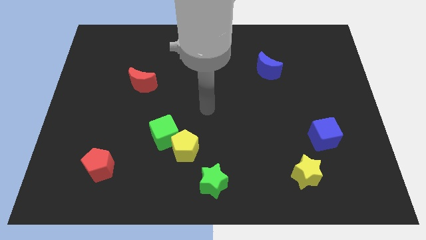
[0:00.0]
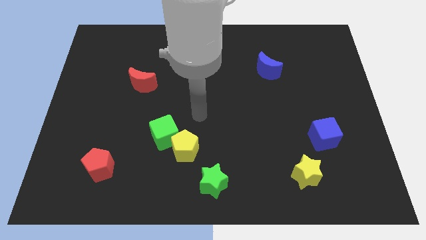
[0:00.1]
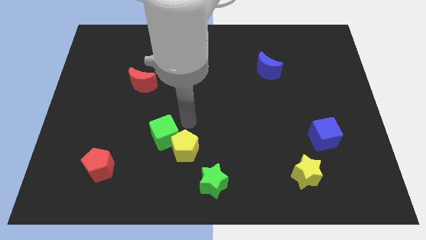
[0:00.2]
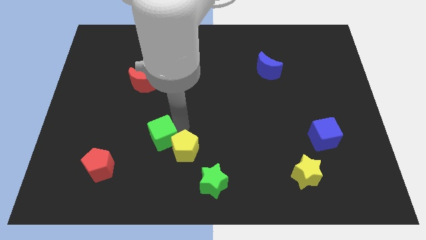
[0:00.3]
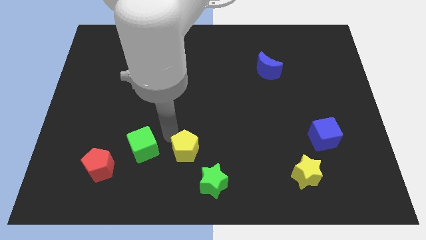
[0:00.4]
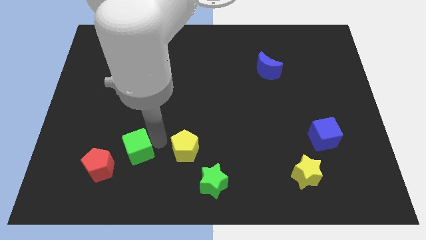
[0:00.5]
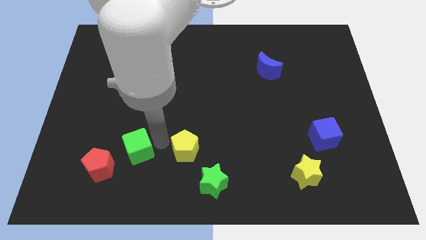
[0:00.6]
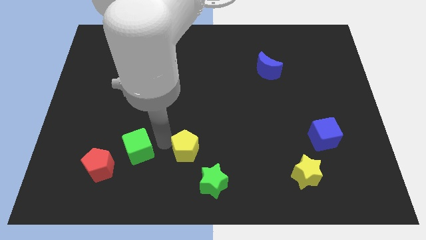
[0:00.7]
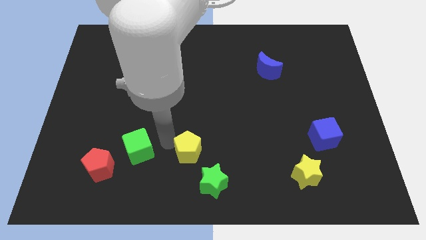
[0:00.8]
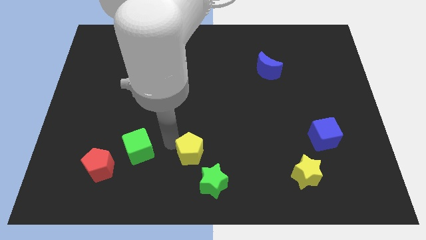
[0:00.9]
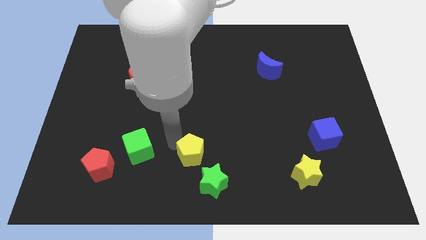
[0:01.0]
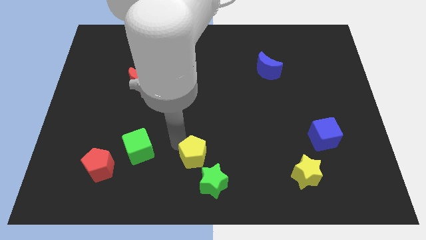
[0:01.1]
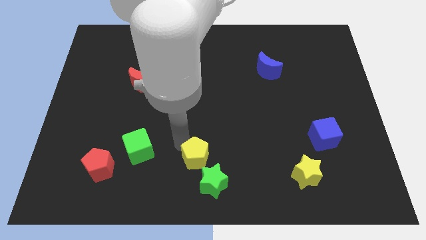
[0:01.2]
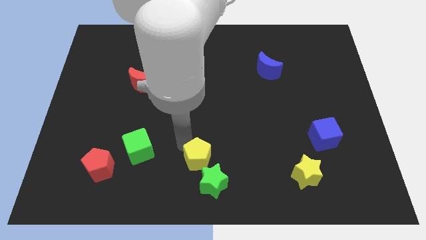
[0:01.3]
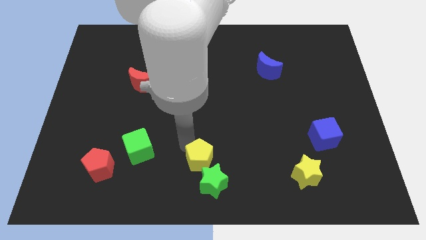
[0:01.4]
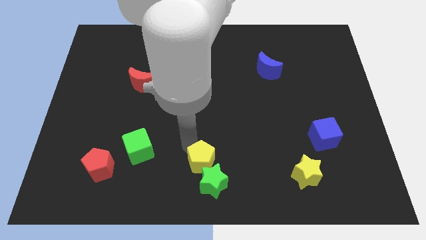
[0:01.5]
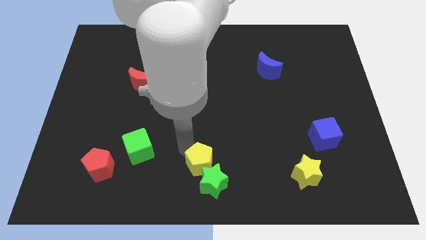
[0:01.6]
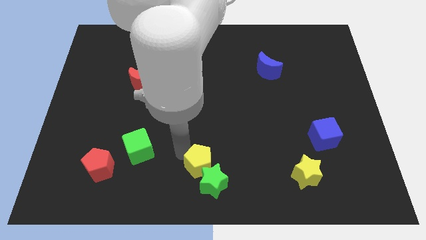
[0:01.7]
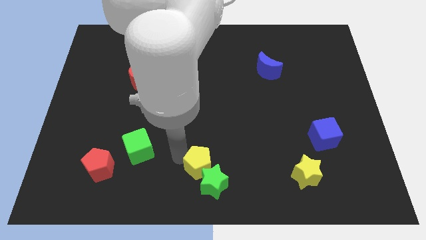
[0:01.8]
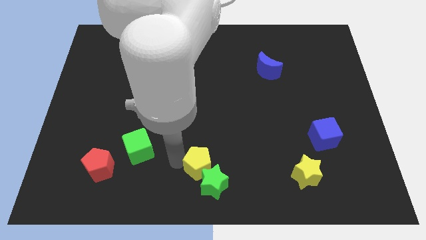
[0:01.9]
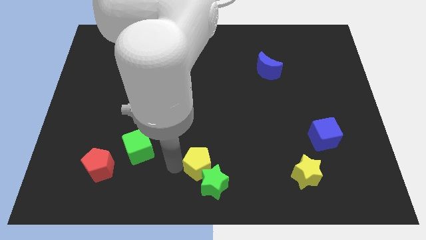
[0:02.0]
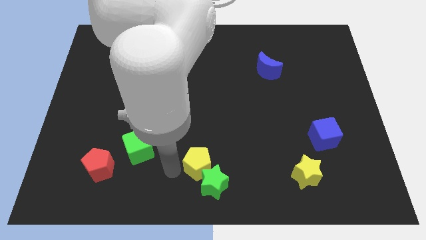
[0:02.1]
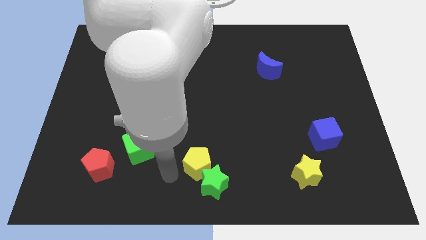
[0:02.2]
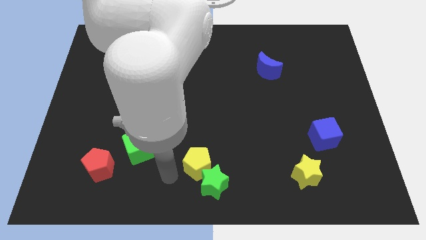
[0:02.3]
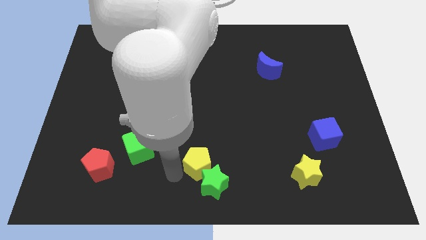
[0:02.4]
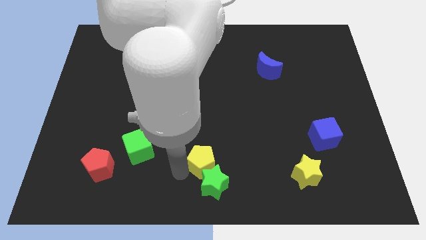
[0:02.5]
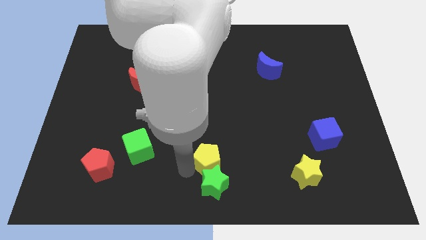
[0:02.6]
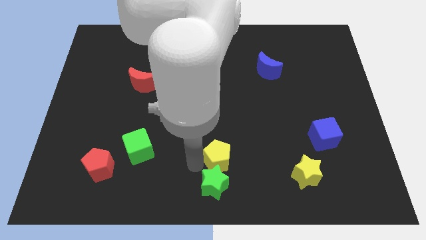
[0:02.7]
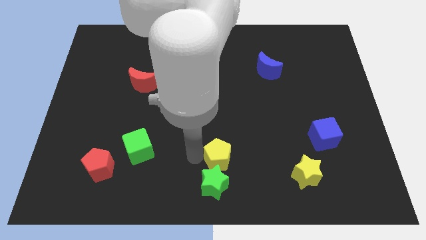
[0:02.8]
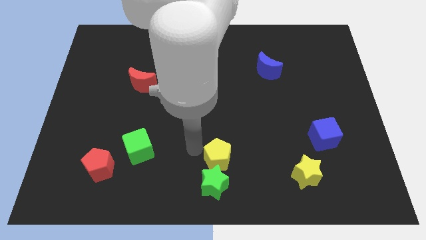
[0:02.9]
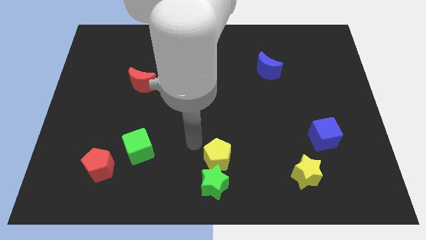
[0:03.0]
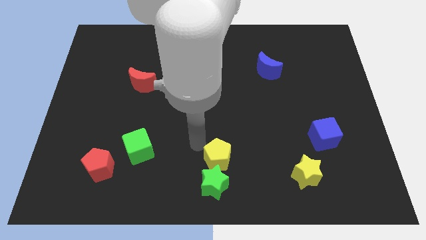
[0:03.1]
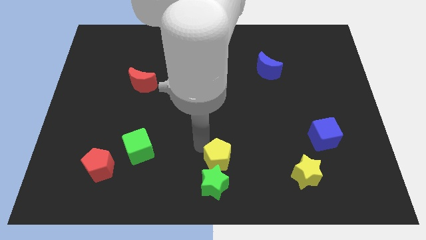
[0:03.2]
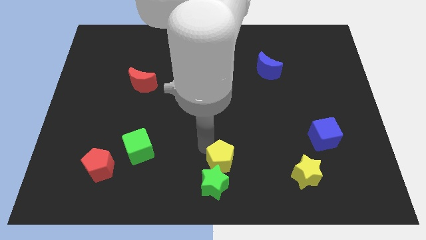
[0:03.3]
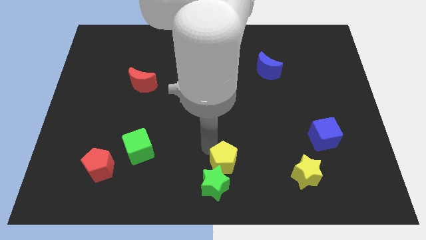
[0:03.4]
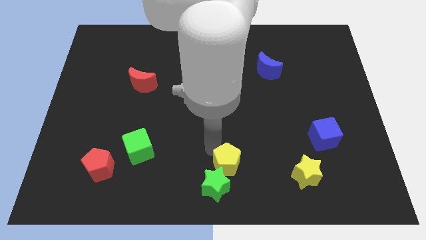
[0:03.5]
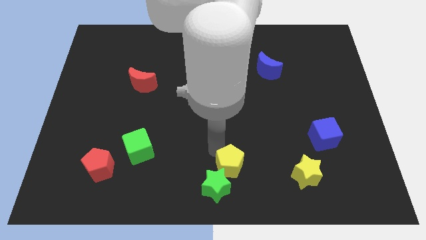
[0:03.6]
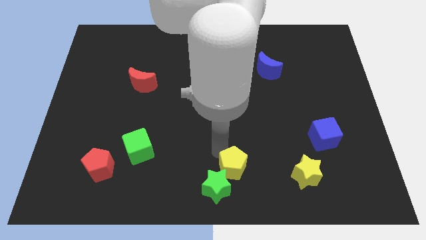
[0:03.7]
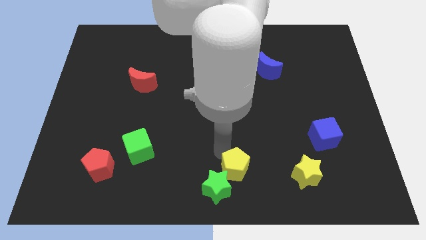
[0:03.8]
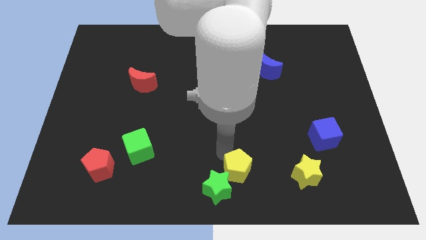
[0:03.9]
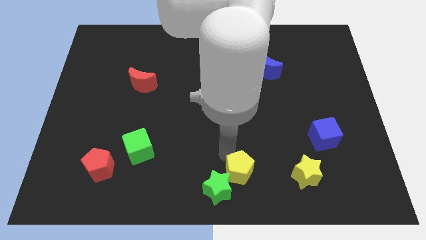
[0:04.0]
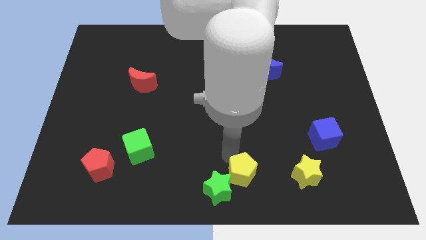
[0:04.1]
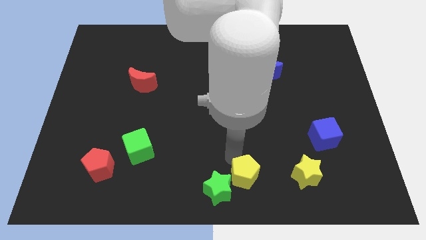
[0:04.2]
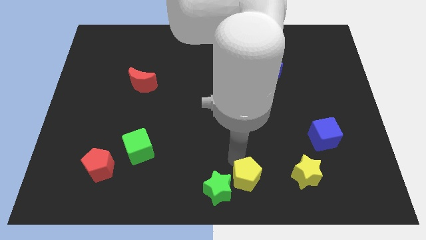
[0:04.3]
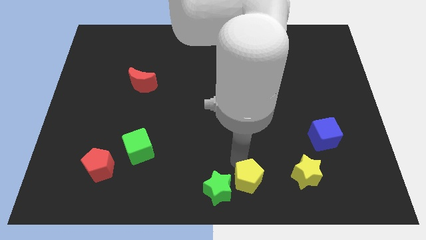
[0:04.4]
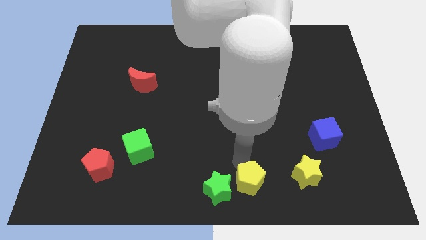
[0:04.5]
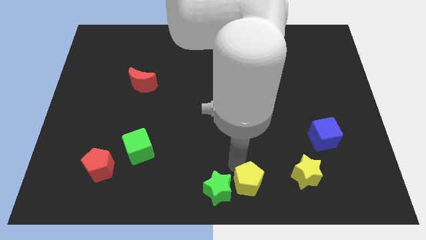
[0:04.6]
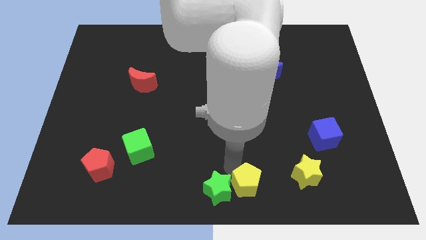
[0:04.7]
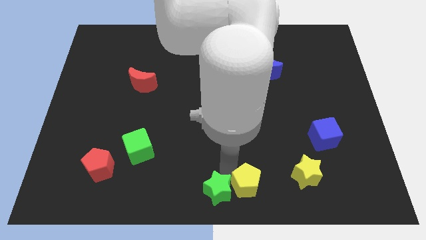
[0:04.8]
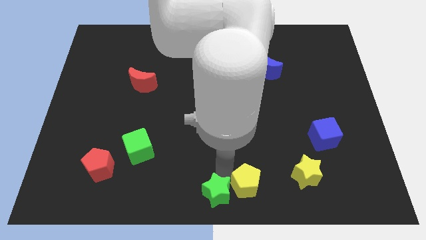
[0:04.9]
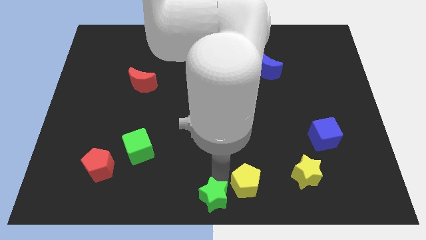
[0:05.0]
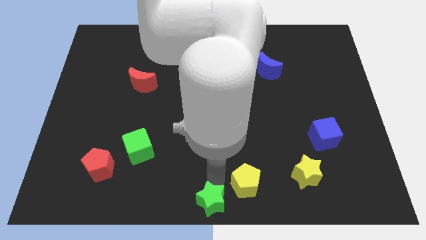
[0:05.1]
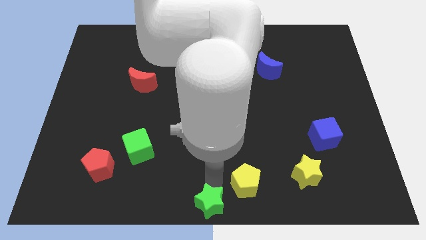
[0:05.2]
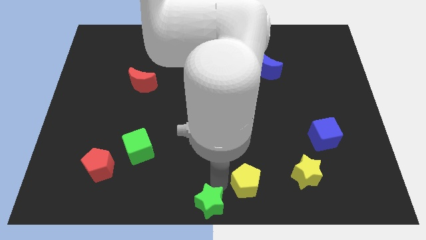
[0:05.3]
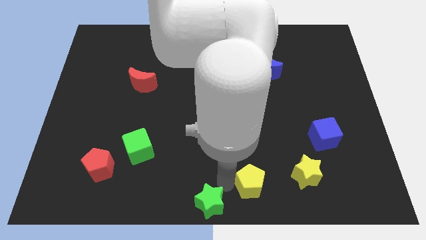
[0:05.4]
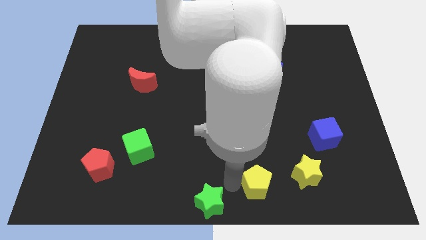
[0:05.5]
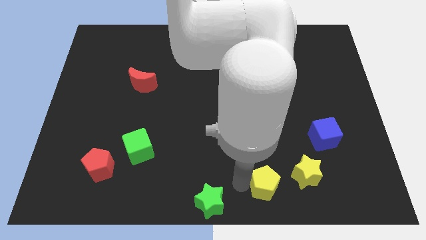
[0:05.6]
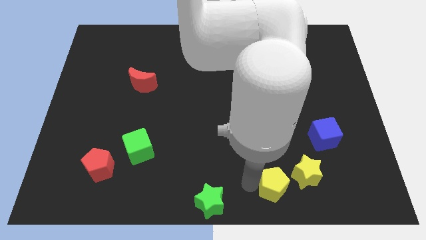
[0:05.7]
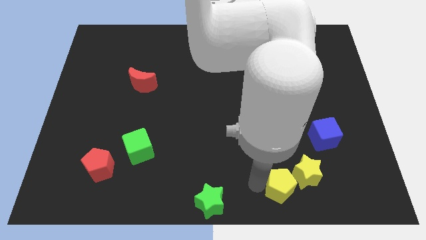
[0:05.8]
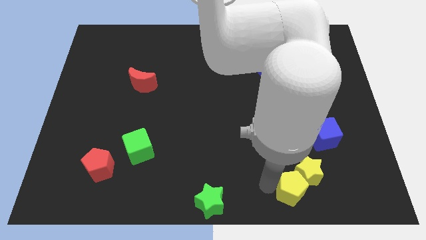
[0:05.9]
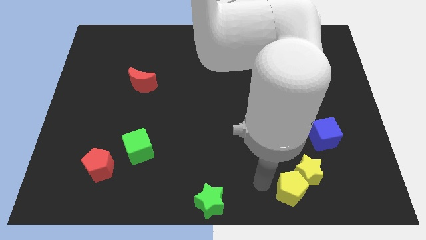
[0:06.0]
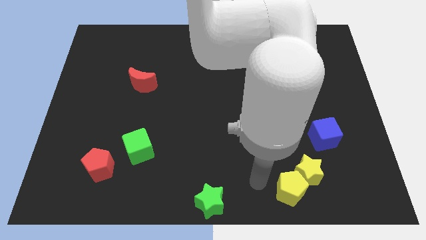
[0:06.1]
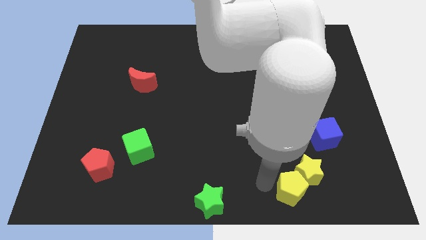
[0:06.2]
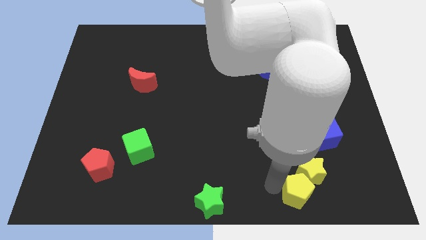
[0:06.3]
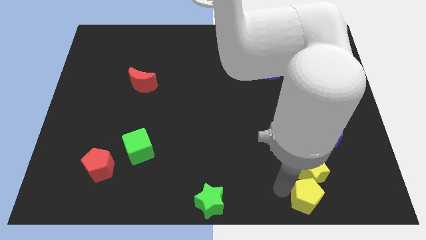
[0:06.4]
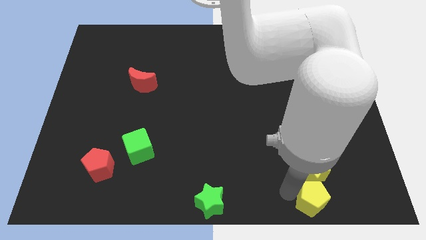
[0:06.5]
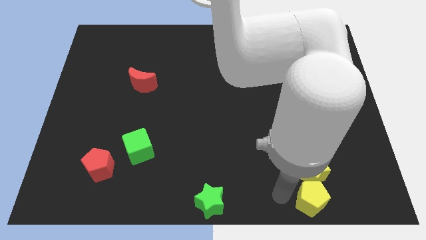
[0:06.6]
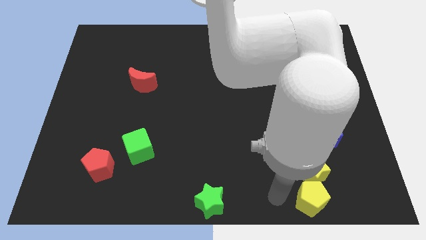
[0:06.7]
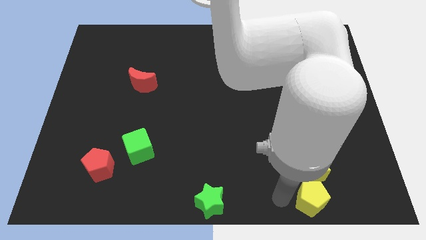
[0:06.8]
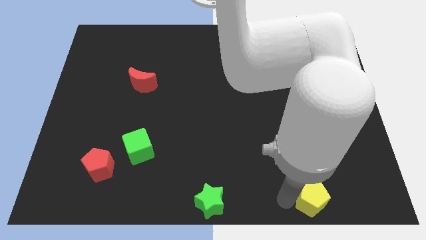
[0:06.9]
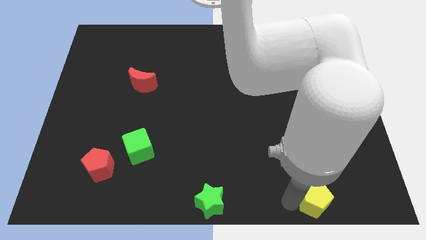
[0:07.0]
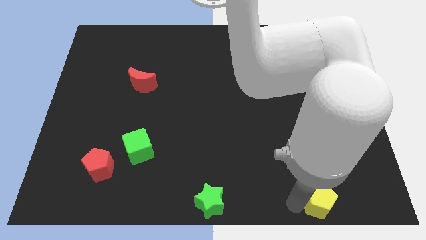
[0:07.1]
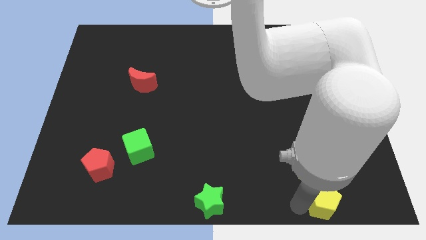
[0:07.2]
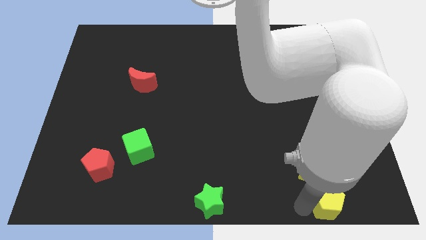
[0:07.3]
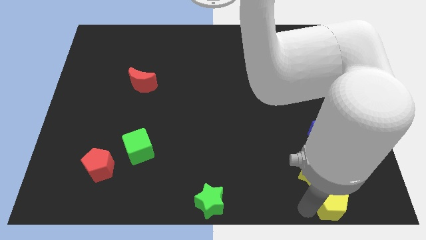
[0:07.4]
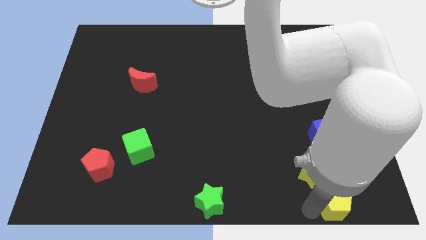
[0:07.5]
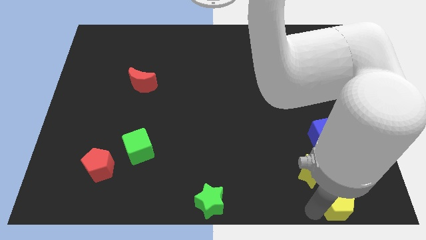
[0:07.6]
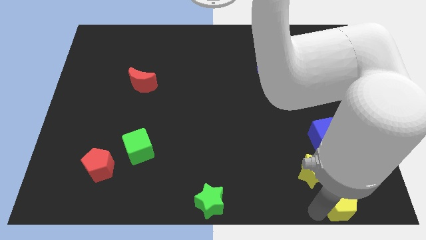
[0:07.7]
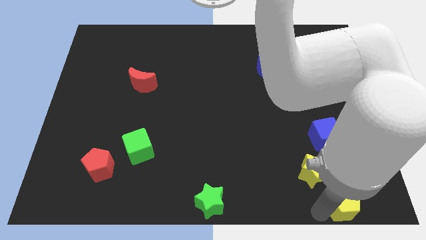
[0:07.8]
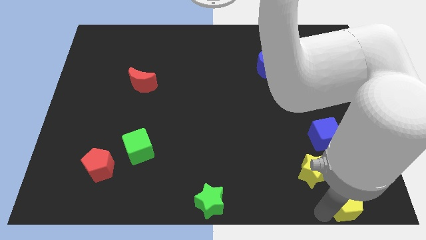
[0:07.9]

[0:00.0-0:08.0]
push the yellow pentagon to the bottom right corner
